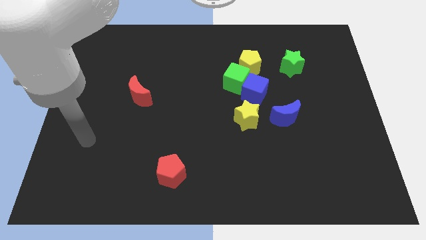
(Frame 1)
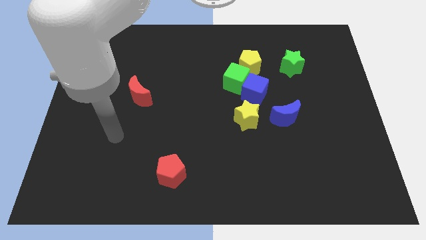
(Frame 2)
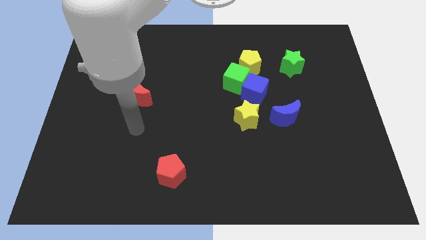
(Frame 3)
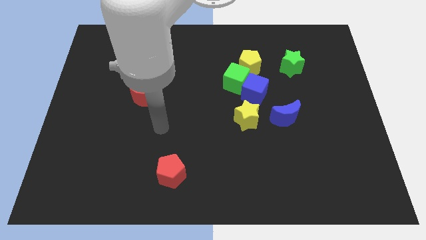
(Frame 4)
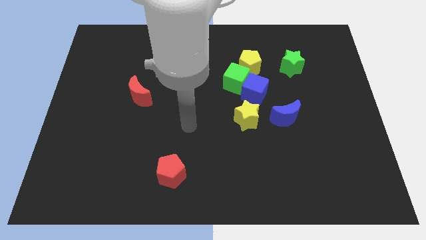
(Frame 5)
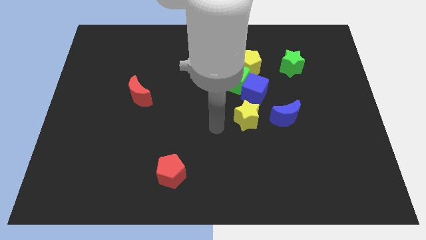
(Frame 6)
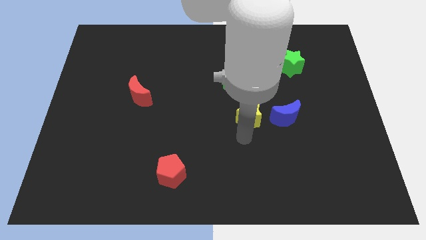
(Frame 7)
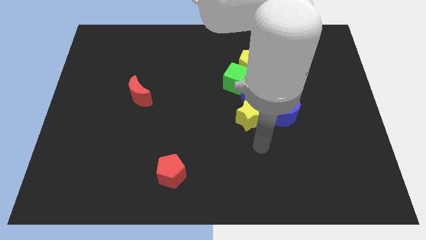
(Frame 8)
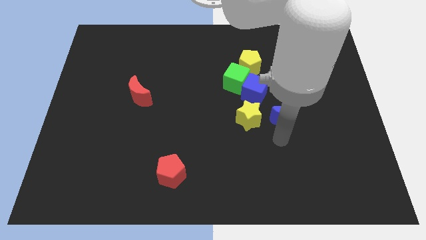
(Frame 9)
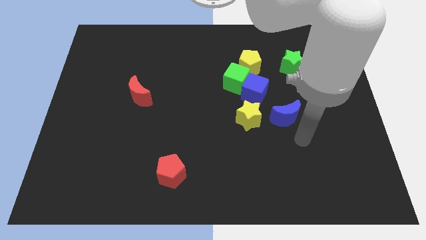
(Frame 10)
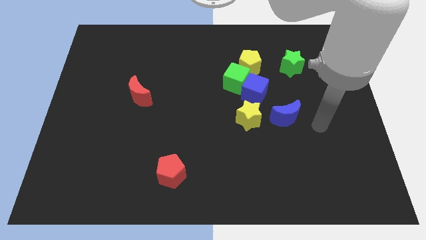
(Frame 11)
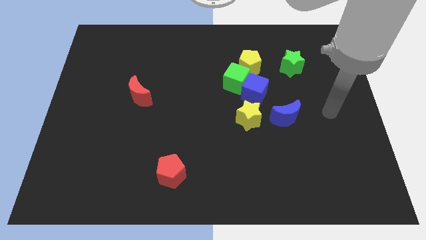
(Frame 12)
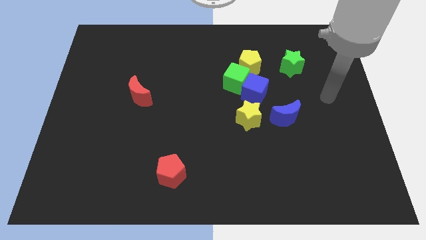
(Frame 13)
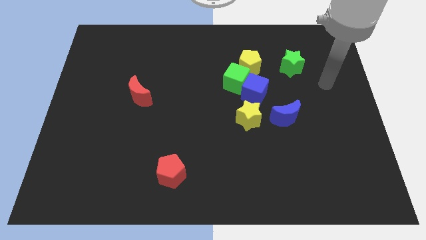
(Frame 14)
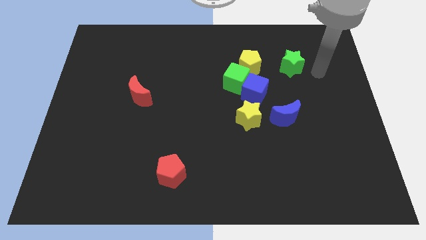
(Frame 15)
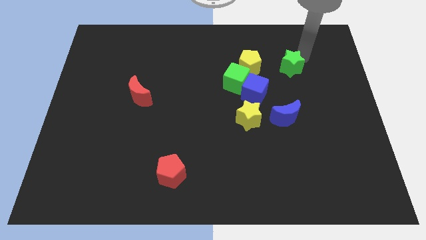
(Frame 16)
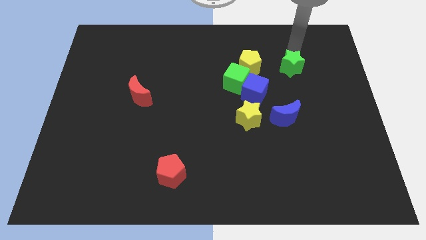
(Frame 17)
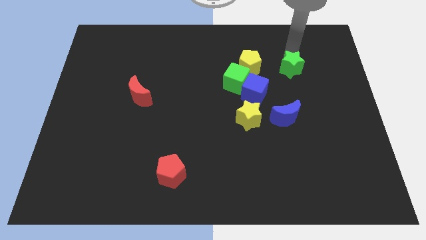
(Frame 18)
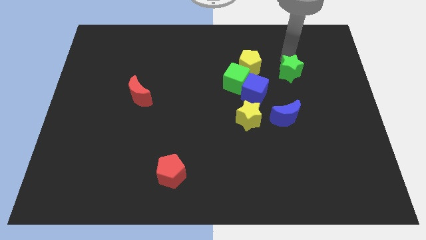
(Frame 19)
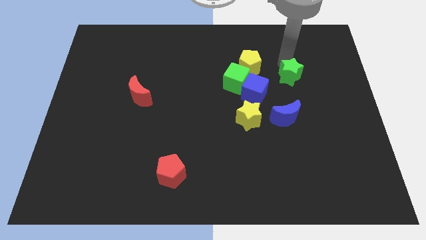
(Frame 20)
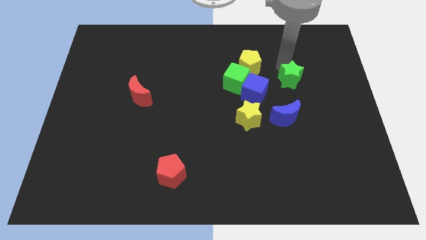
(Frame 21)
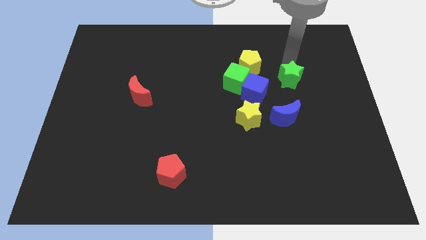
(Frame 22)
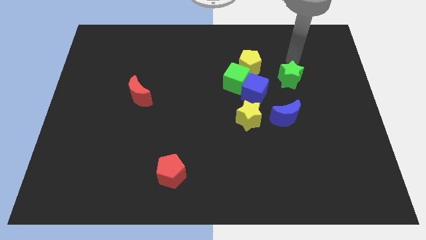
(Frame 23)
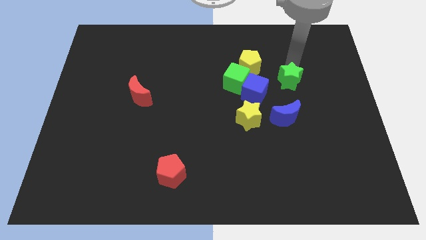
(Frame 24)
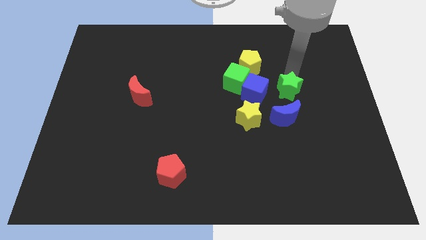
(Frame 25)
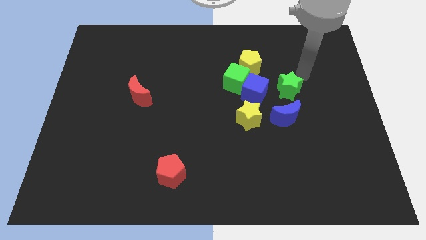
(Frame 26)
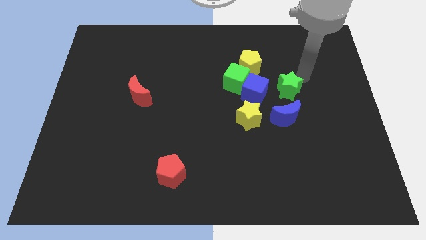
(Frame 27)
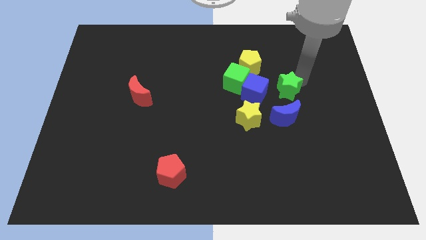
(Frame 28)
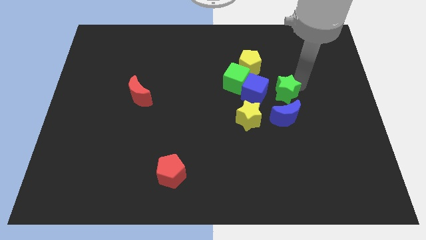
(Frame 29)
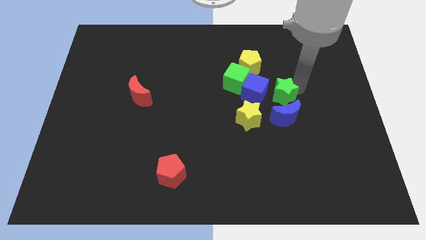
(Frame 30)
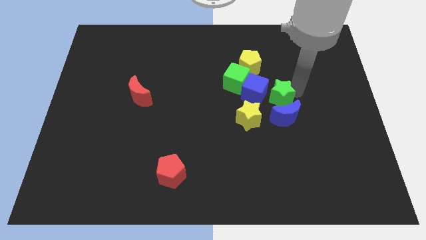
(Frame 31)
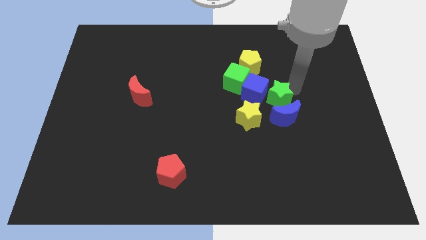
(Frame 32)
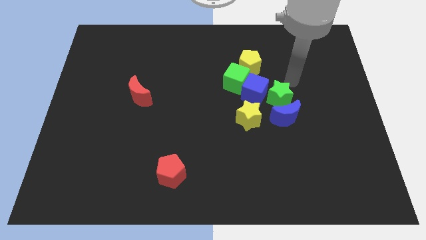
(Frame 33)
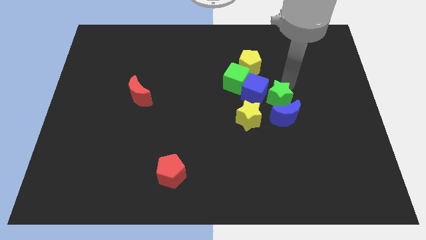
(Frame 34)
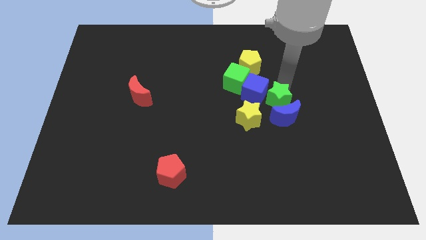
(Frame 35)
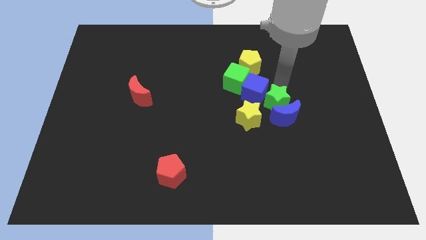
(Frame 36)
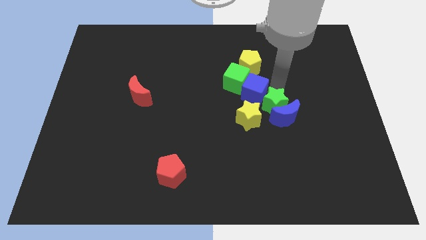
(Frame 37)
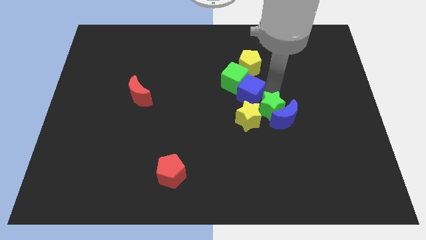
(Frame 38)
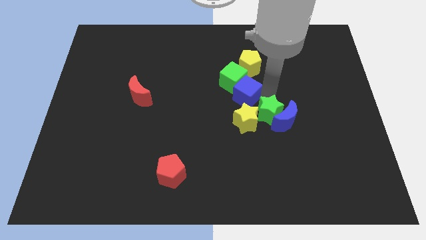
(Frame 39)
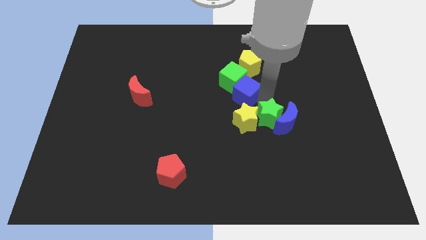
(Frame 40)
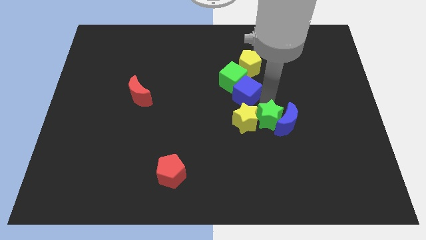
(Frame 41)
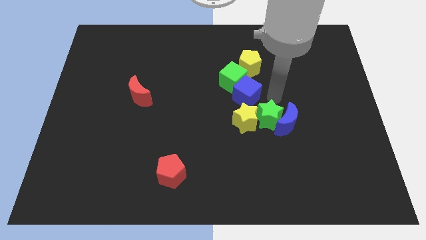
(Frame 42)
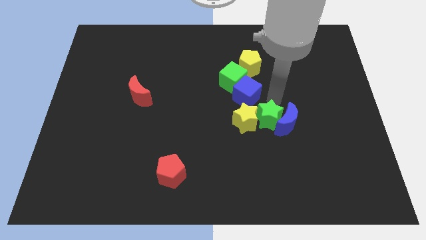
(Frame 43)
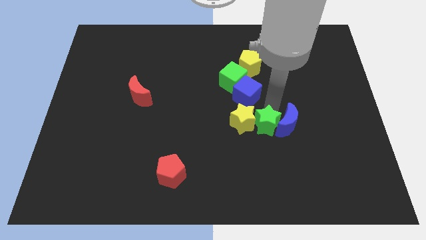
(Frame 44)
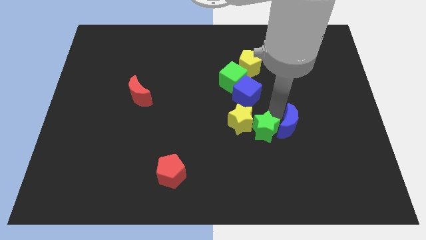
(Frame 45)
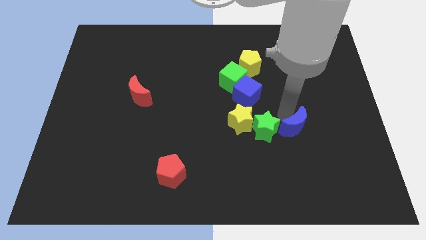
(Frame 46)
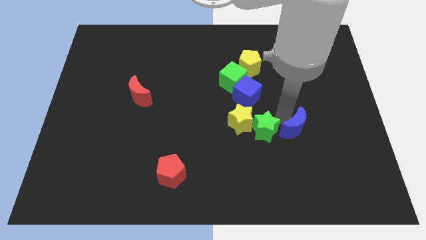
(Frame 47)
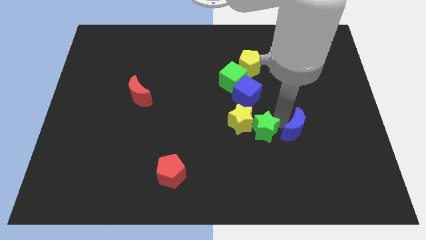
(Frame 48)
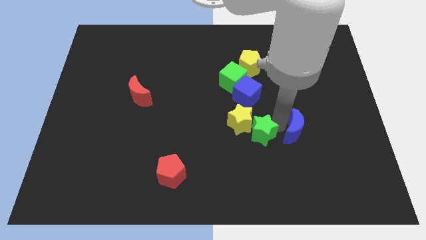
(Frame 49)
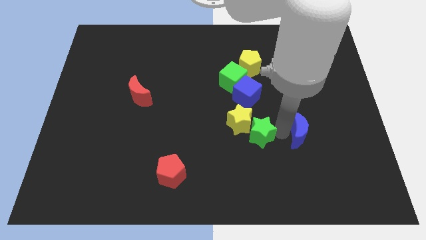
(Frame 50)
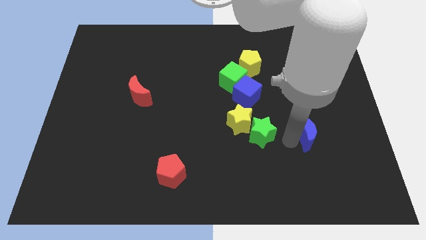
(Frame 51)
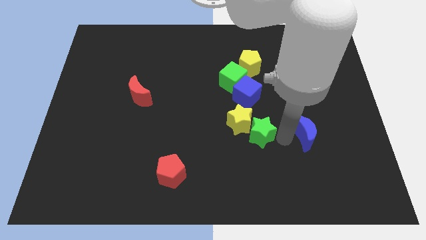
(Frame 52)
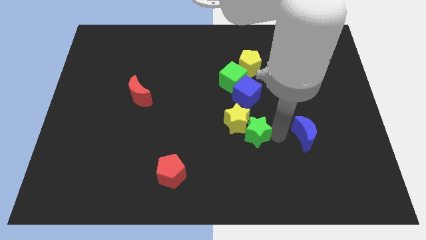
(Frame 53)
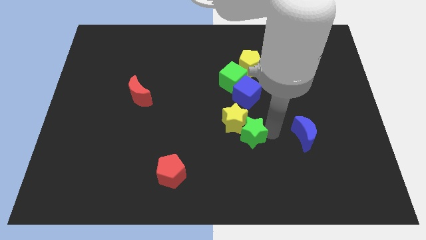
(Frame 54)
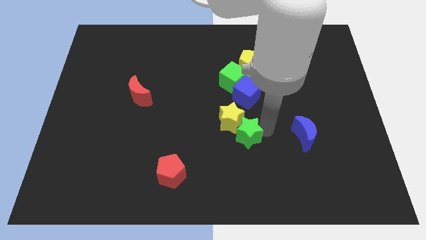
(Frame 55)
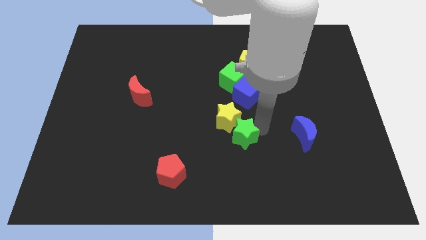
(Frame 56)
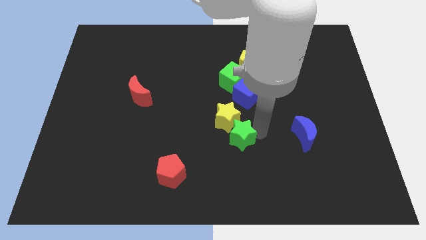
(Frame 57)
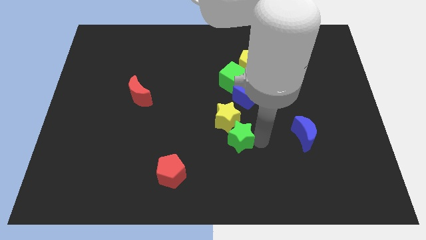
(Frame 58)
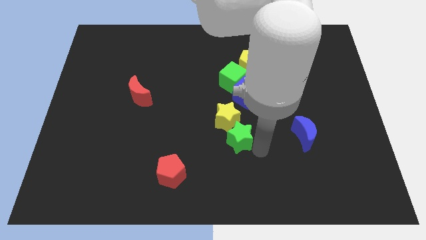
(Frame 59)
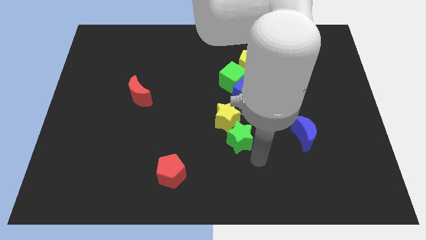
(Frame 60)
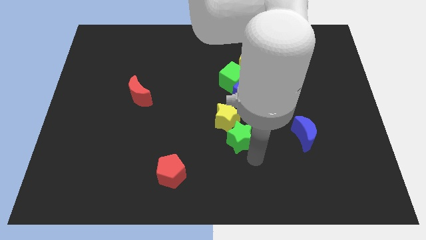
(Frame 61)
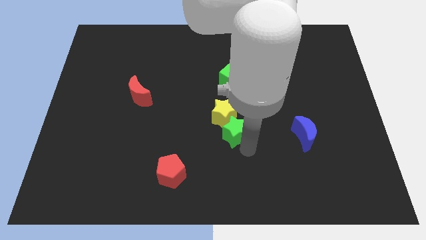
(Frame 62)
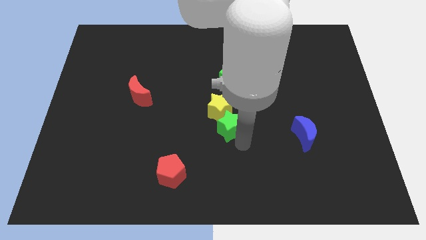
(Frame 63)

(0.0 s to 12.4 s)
slide the green star to the bottom left side of the blue cube

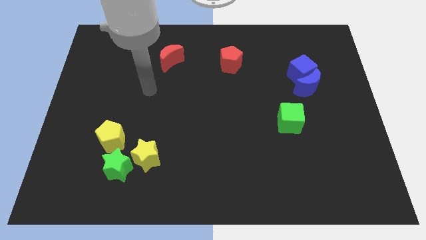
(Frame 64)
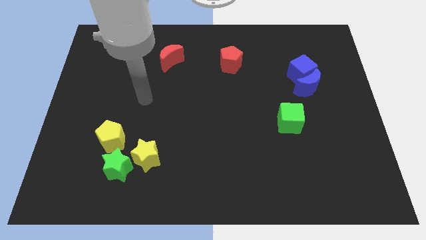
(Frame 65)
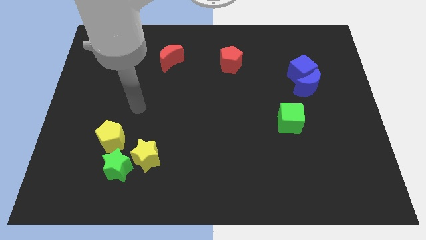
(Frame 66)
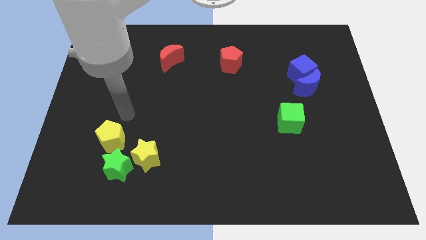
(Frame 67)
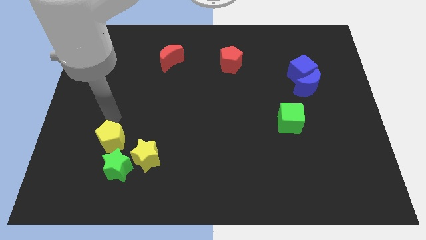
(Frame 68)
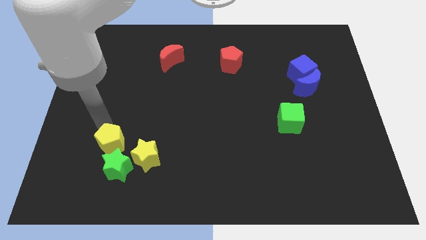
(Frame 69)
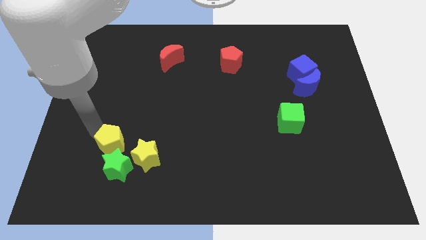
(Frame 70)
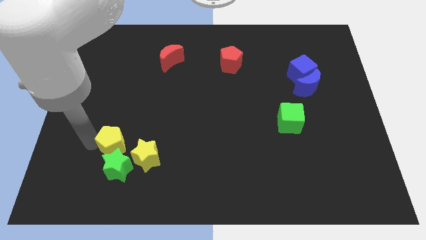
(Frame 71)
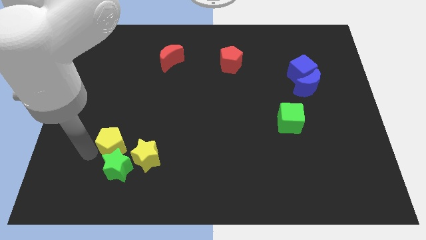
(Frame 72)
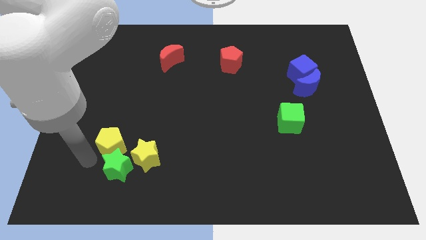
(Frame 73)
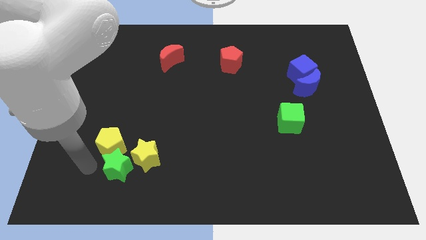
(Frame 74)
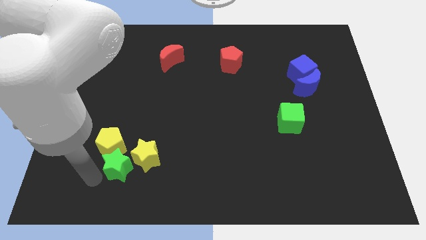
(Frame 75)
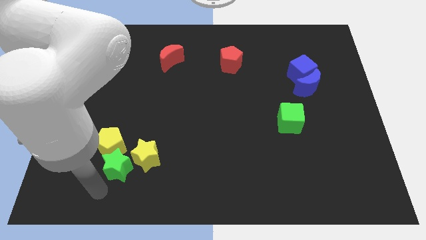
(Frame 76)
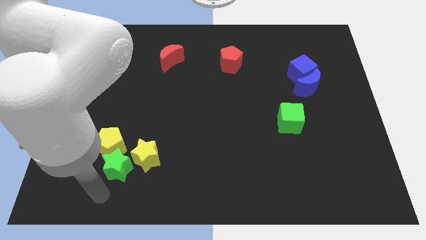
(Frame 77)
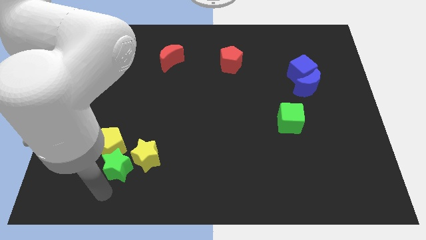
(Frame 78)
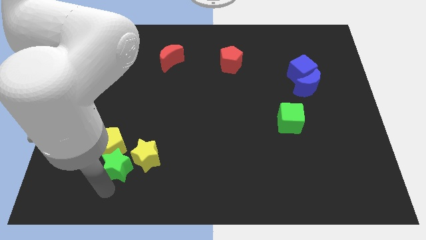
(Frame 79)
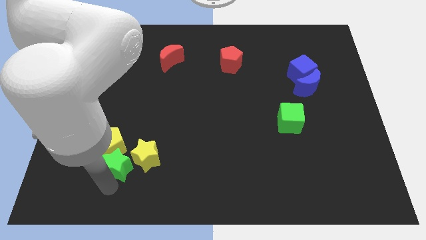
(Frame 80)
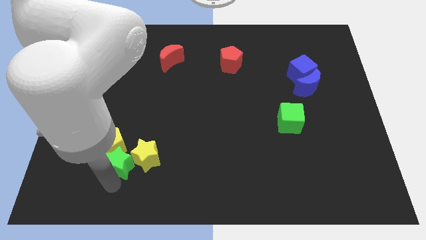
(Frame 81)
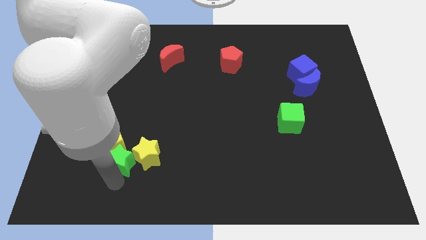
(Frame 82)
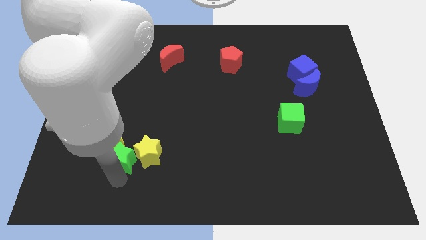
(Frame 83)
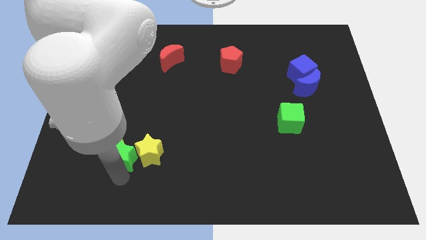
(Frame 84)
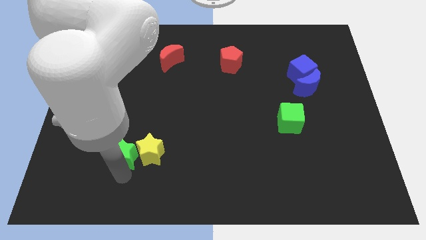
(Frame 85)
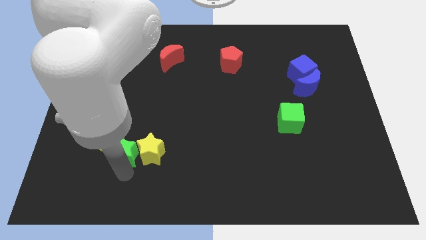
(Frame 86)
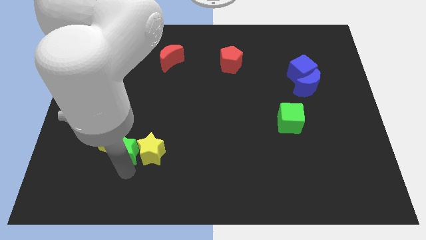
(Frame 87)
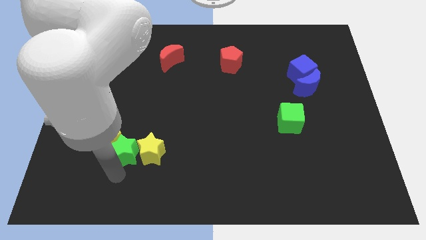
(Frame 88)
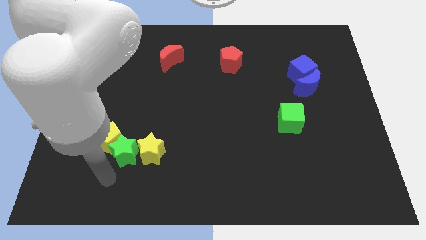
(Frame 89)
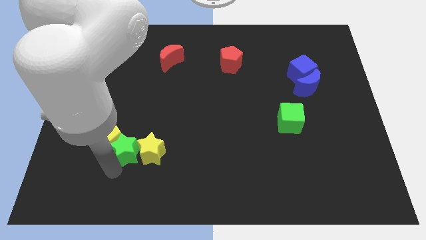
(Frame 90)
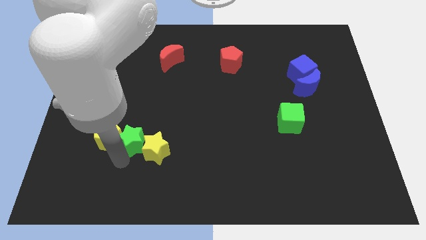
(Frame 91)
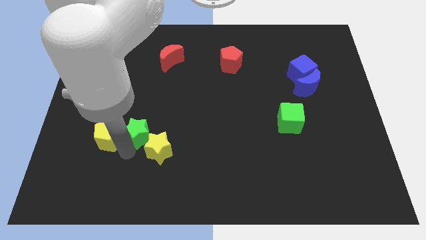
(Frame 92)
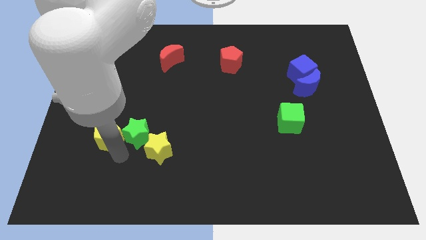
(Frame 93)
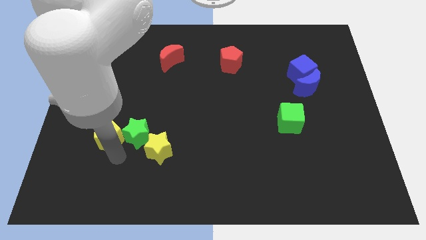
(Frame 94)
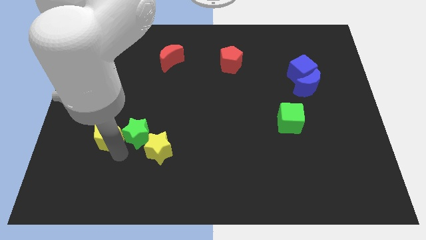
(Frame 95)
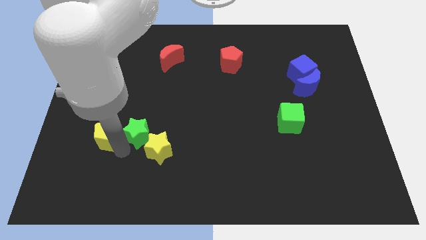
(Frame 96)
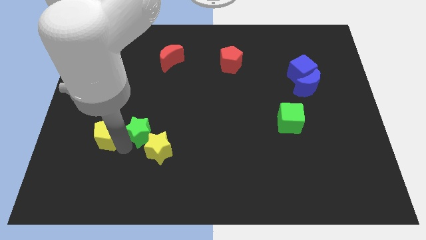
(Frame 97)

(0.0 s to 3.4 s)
push the green star to the top of the yellow star
